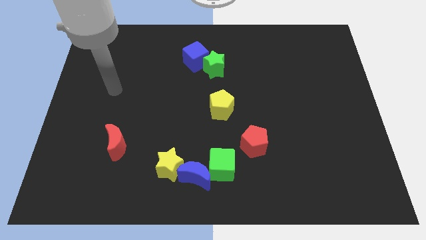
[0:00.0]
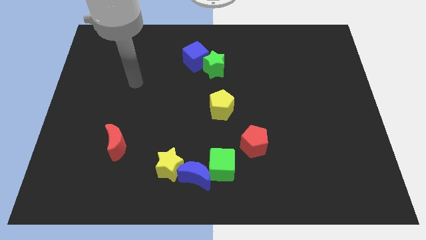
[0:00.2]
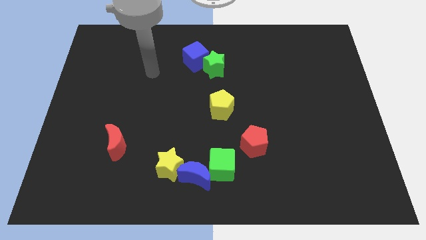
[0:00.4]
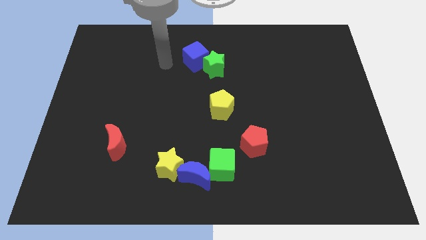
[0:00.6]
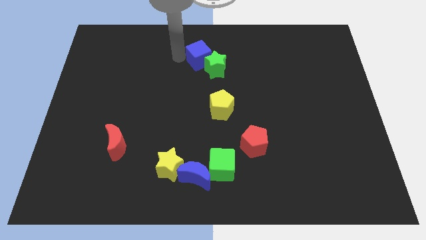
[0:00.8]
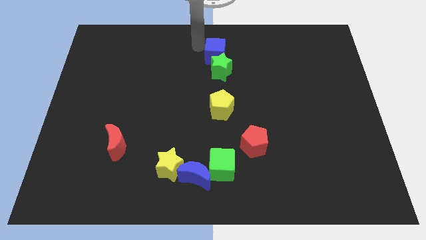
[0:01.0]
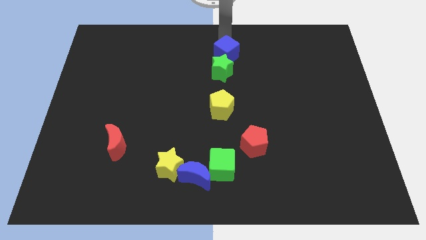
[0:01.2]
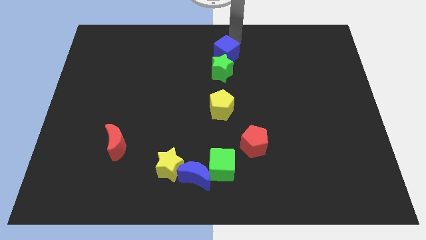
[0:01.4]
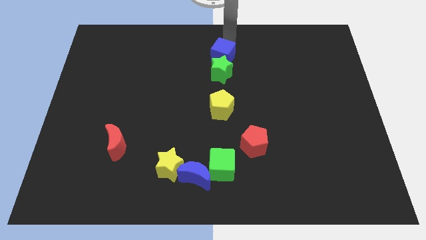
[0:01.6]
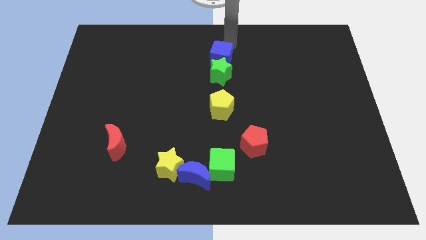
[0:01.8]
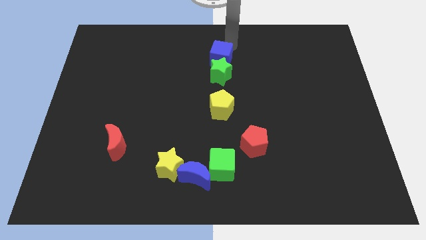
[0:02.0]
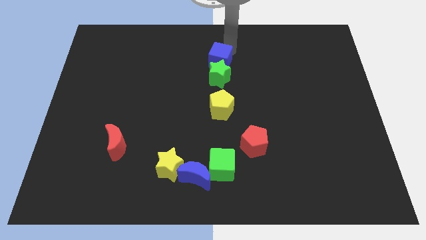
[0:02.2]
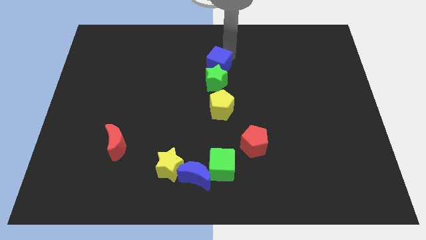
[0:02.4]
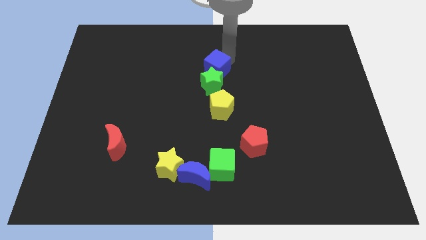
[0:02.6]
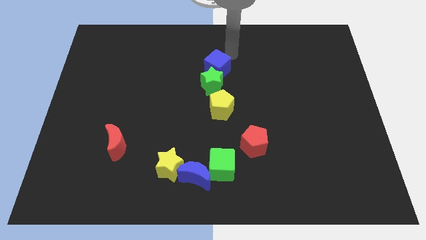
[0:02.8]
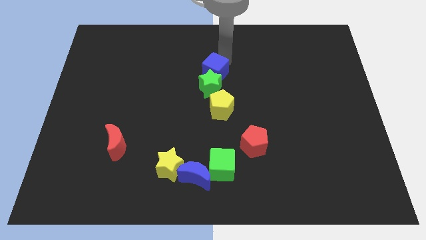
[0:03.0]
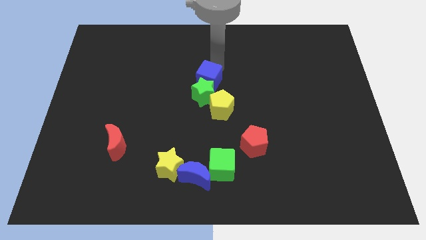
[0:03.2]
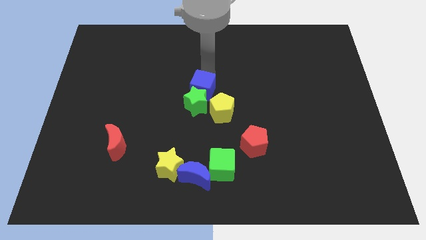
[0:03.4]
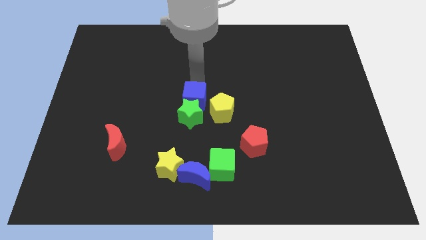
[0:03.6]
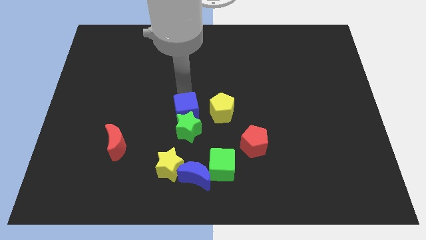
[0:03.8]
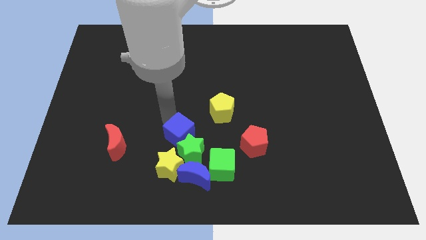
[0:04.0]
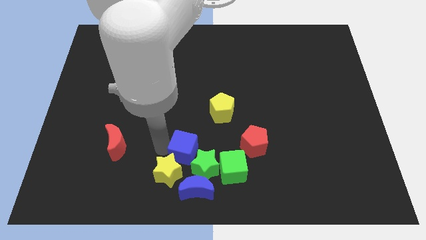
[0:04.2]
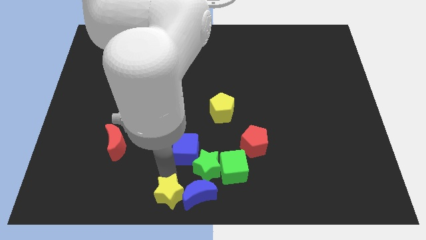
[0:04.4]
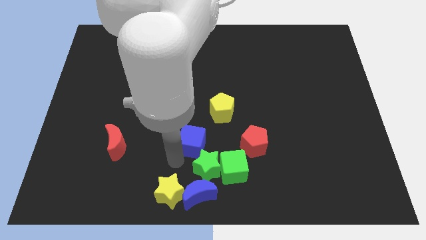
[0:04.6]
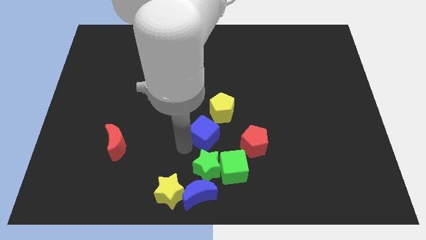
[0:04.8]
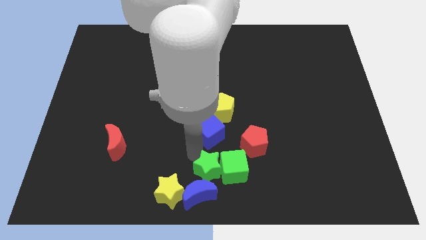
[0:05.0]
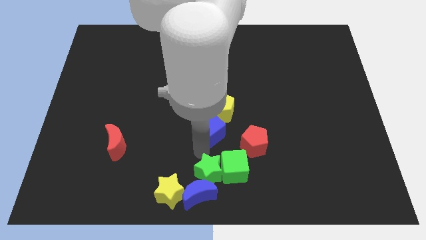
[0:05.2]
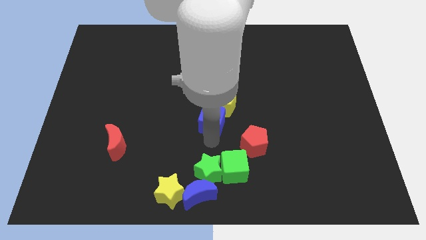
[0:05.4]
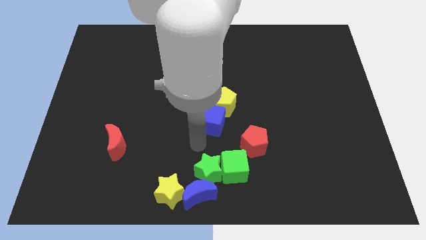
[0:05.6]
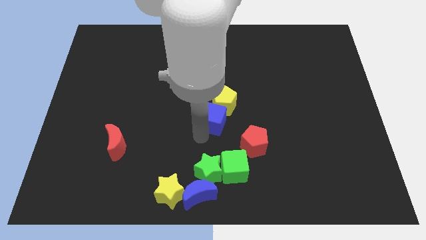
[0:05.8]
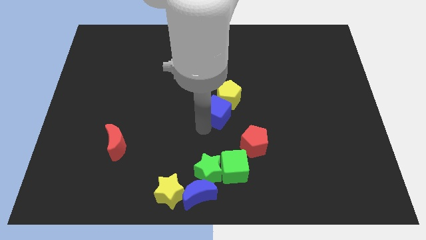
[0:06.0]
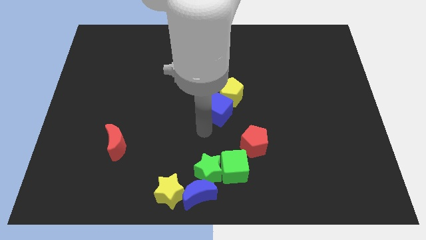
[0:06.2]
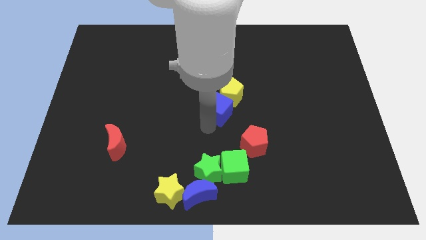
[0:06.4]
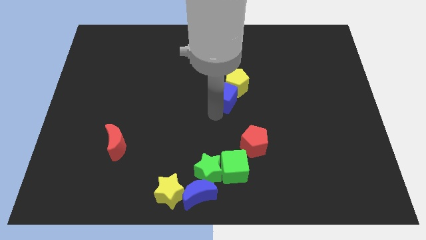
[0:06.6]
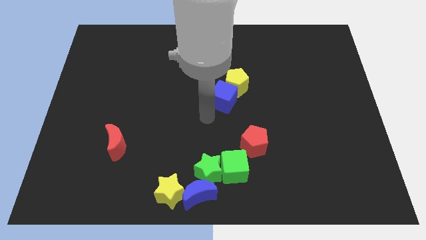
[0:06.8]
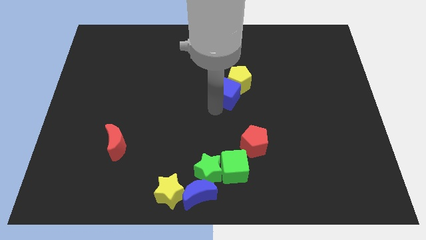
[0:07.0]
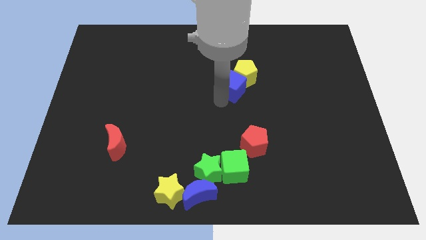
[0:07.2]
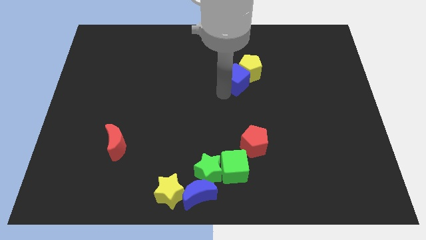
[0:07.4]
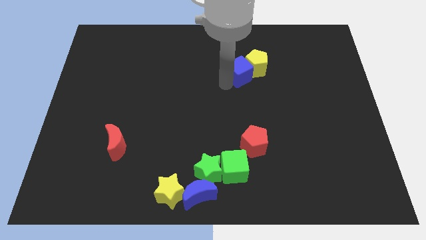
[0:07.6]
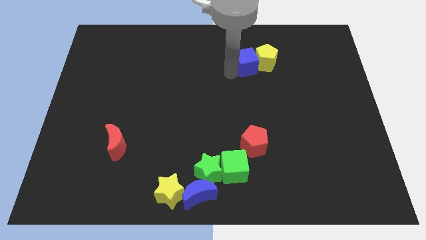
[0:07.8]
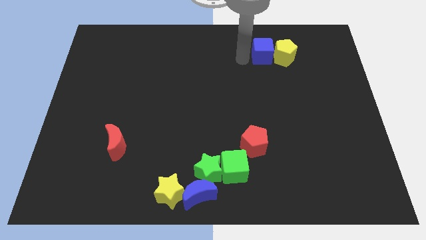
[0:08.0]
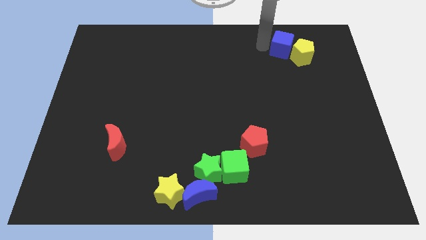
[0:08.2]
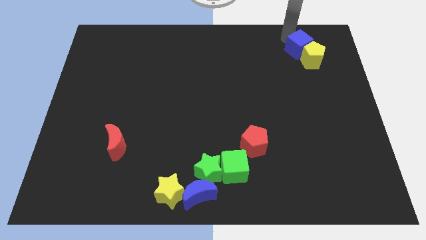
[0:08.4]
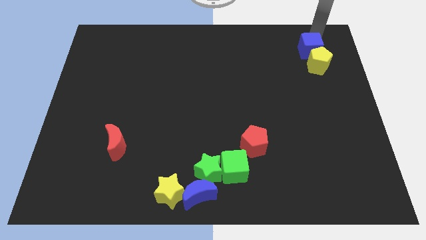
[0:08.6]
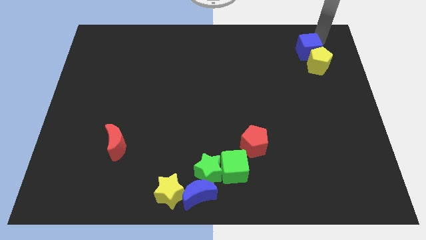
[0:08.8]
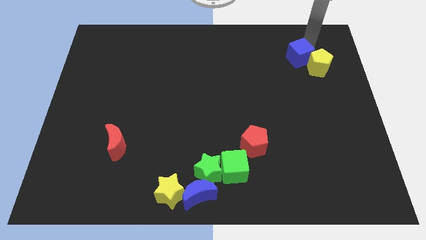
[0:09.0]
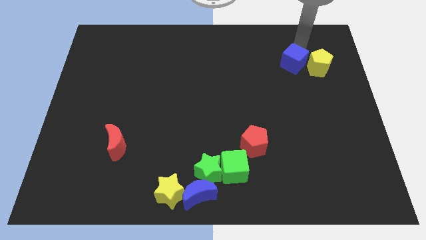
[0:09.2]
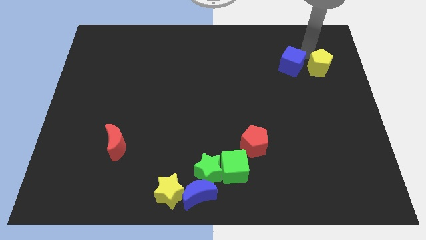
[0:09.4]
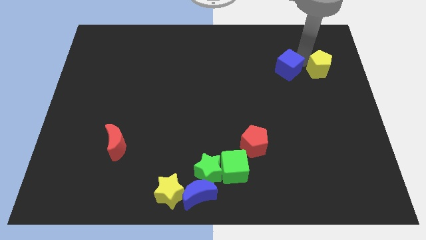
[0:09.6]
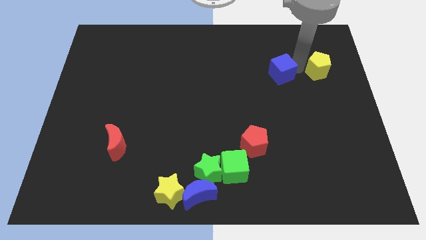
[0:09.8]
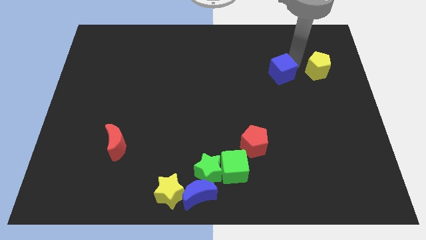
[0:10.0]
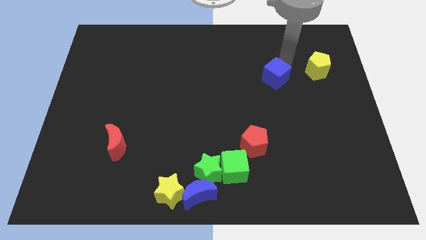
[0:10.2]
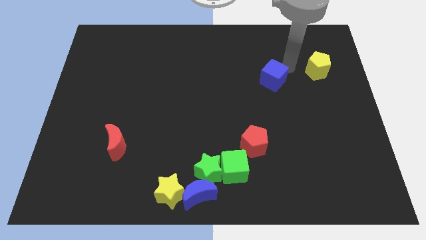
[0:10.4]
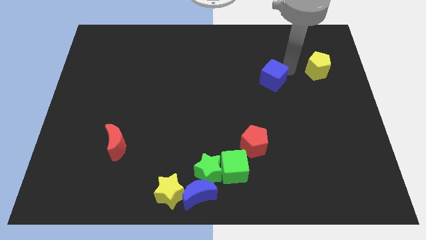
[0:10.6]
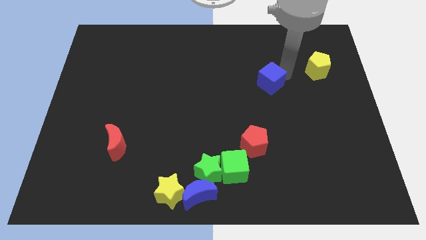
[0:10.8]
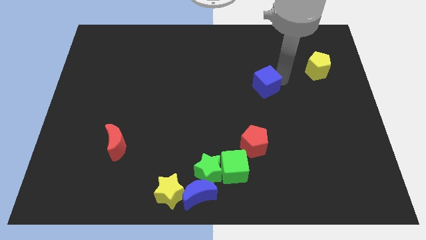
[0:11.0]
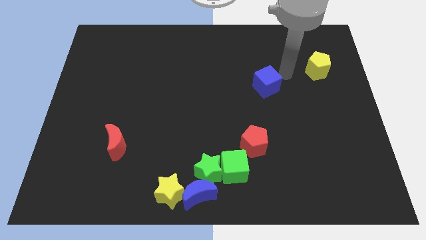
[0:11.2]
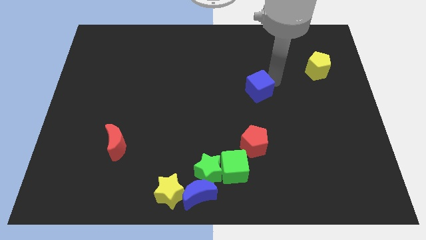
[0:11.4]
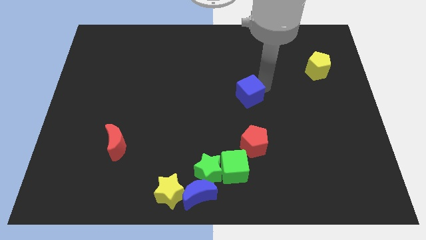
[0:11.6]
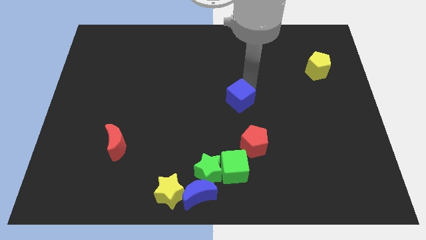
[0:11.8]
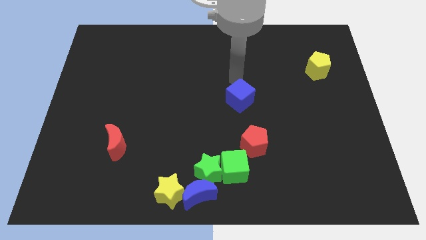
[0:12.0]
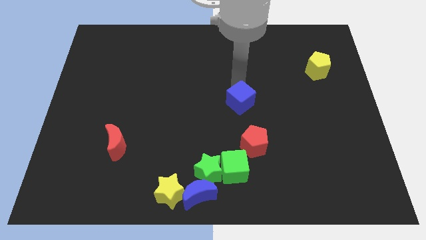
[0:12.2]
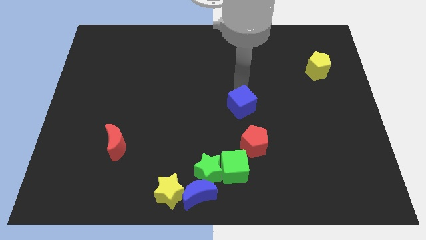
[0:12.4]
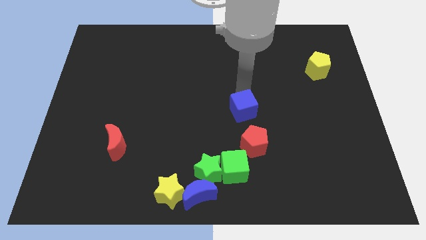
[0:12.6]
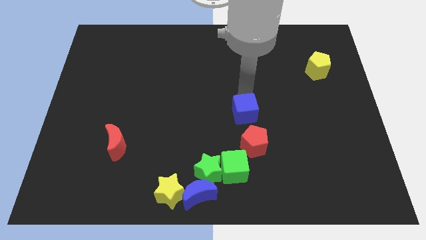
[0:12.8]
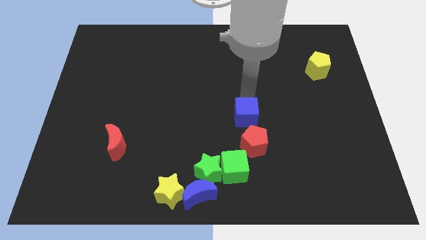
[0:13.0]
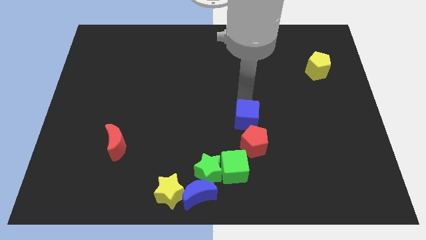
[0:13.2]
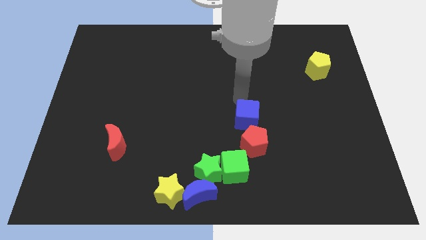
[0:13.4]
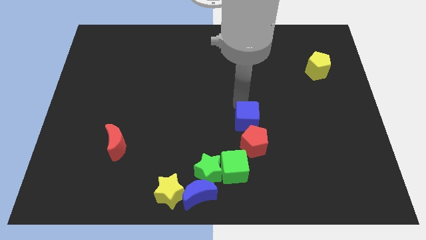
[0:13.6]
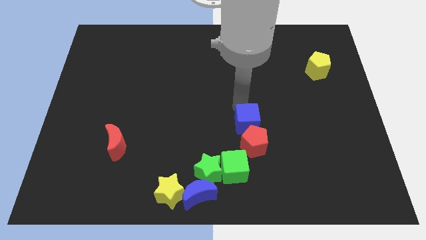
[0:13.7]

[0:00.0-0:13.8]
slide the blue cube close to the red pentagon

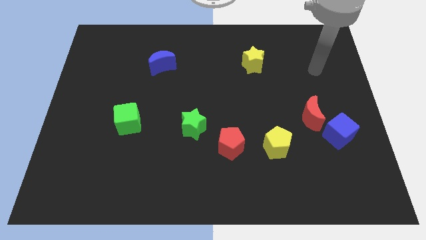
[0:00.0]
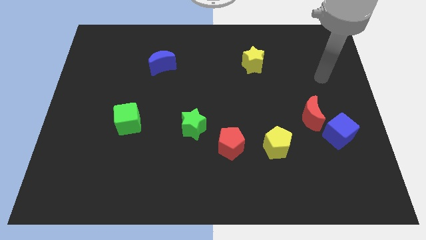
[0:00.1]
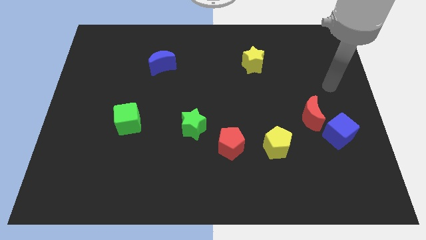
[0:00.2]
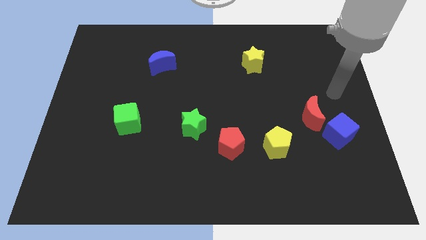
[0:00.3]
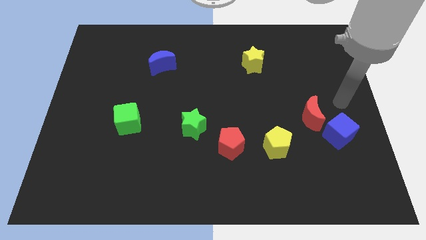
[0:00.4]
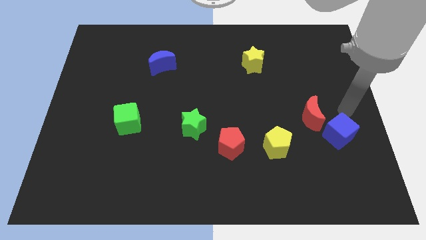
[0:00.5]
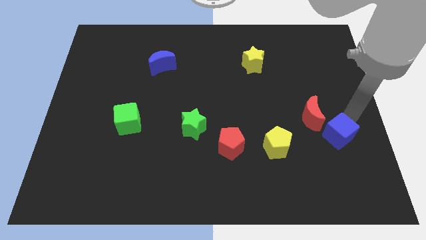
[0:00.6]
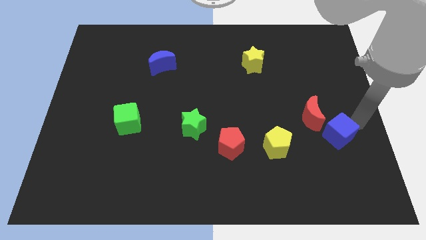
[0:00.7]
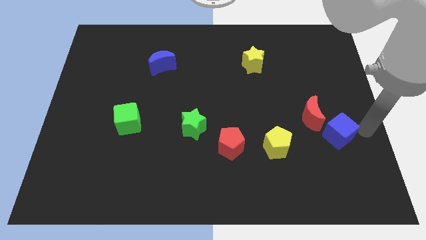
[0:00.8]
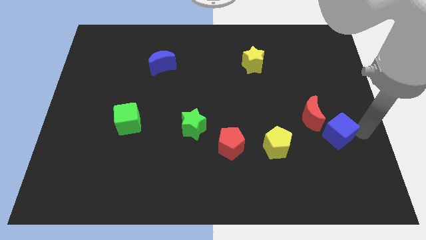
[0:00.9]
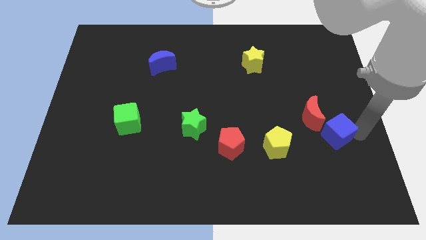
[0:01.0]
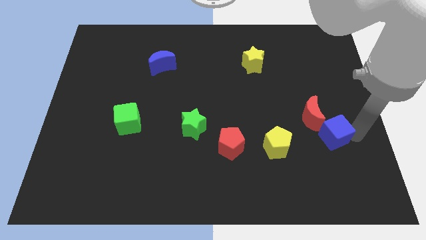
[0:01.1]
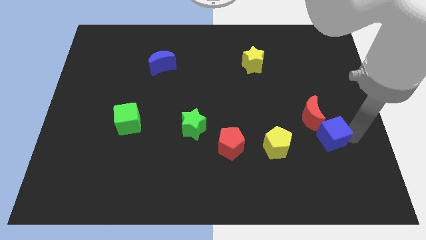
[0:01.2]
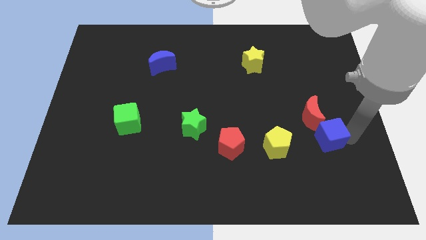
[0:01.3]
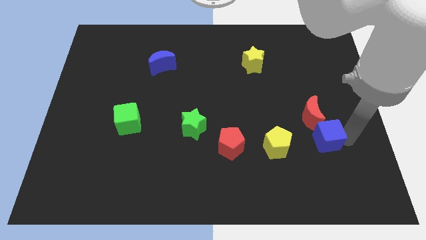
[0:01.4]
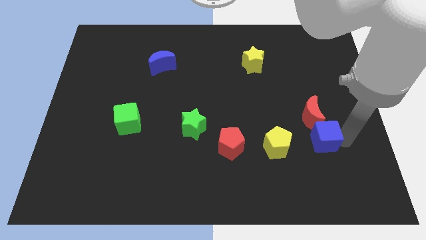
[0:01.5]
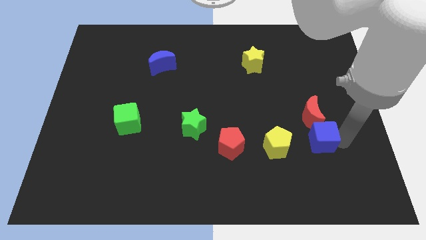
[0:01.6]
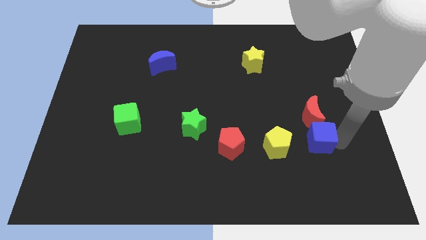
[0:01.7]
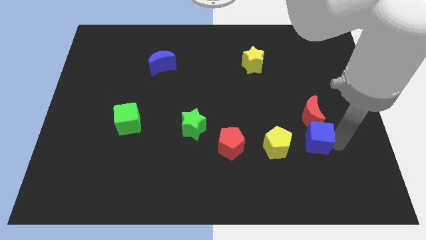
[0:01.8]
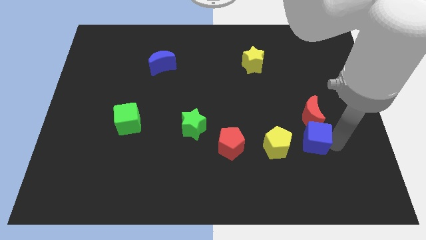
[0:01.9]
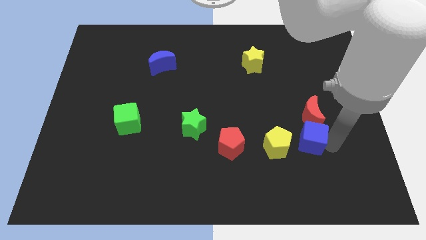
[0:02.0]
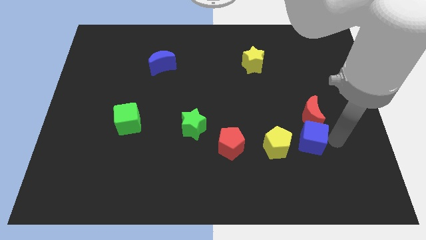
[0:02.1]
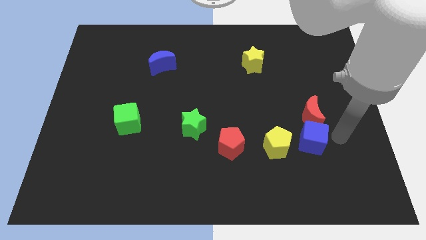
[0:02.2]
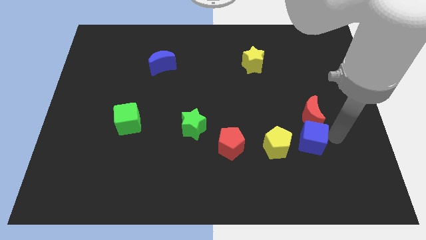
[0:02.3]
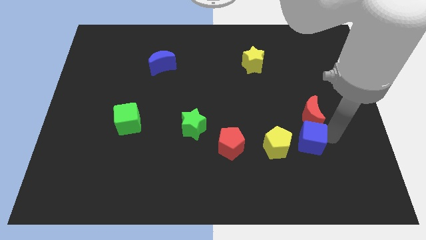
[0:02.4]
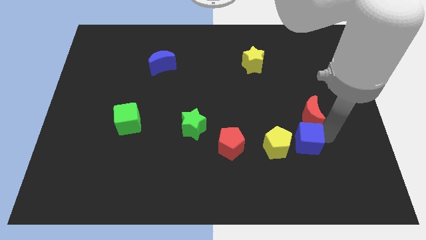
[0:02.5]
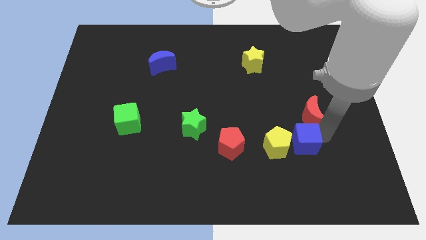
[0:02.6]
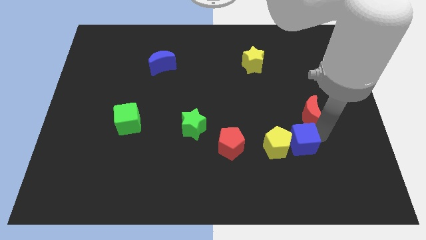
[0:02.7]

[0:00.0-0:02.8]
move the blue cube to the yellow pentagon
